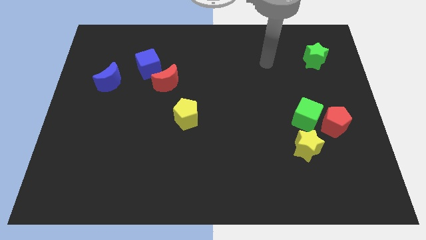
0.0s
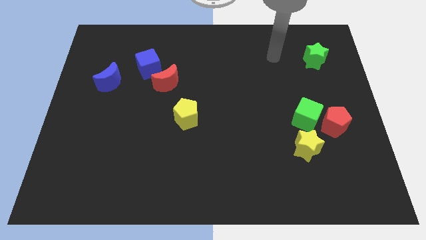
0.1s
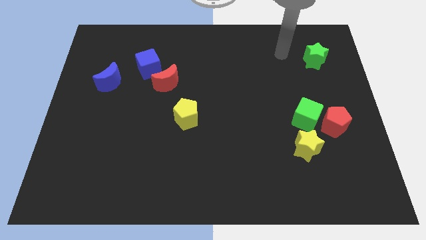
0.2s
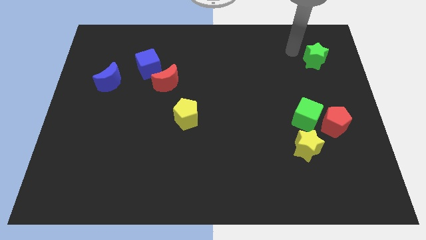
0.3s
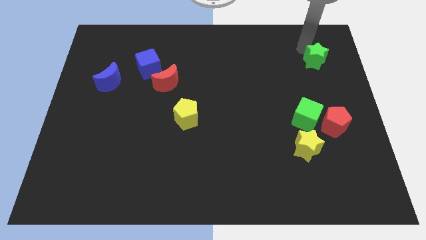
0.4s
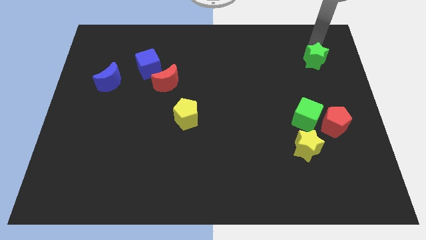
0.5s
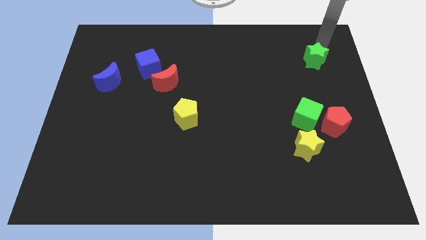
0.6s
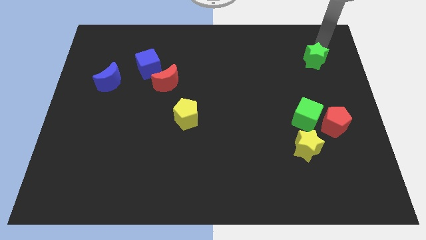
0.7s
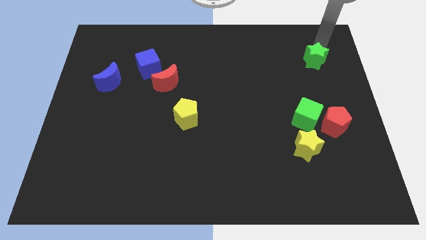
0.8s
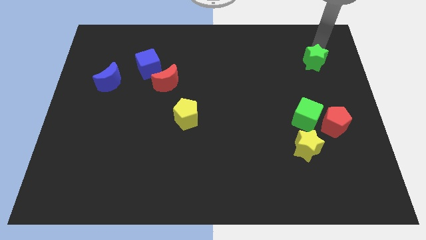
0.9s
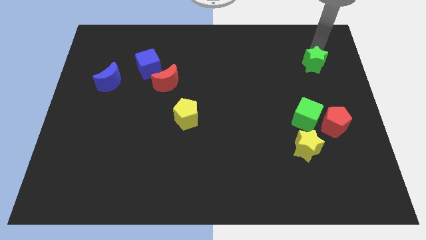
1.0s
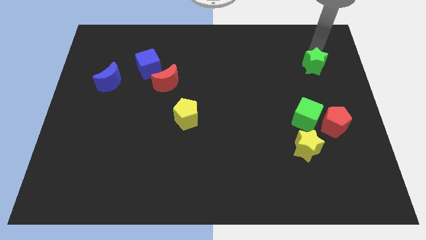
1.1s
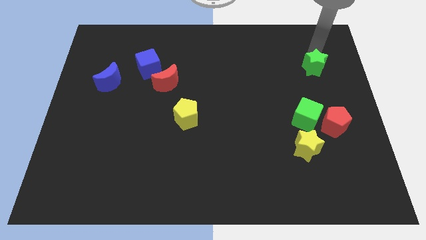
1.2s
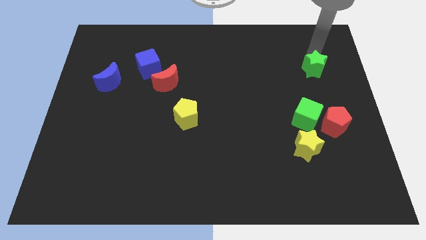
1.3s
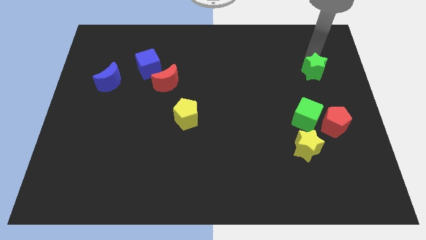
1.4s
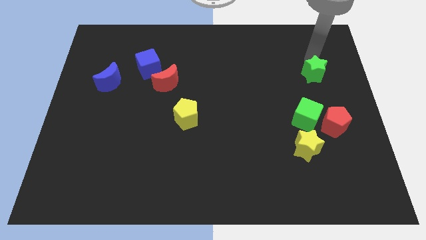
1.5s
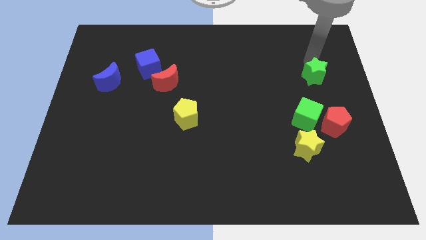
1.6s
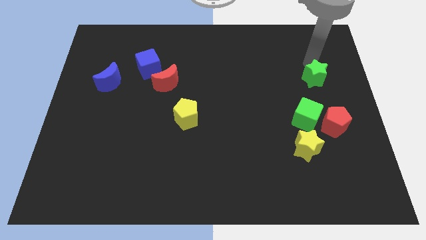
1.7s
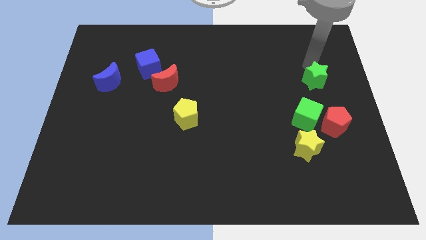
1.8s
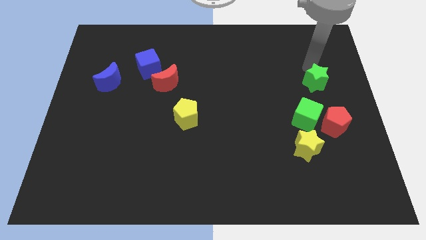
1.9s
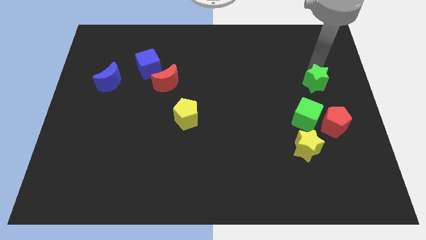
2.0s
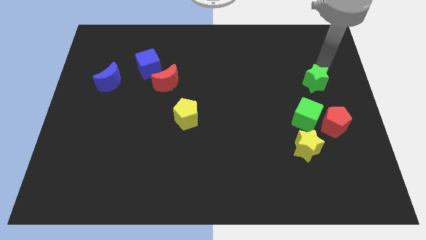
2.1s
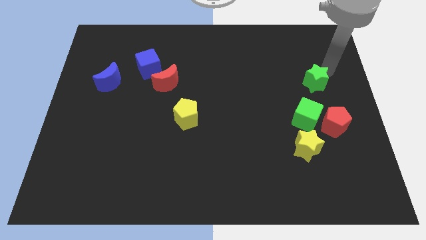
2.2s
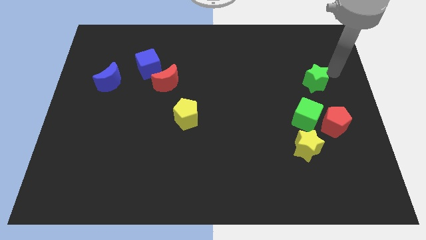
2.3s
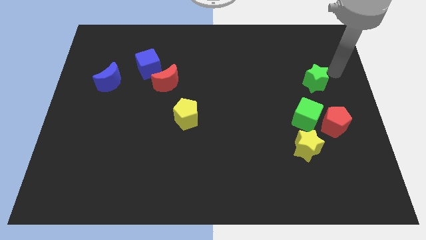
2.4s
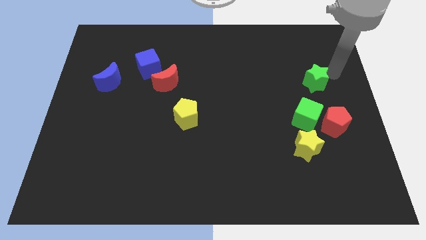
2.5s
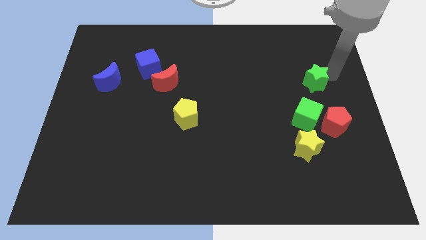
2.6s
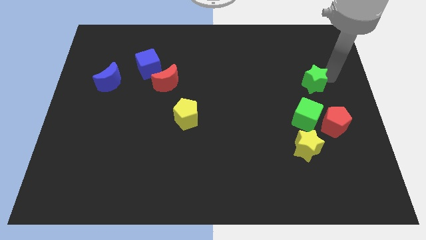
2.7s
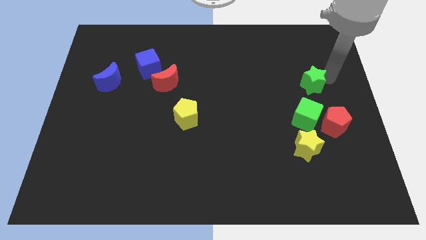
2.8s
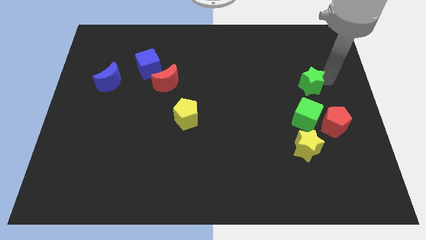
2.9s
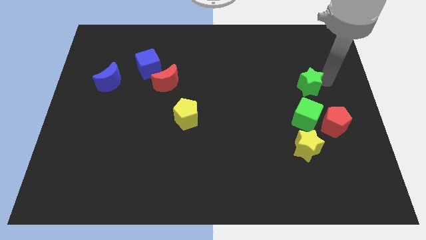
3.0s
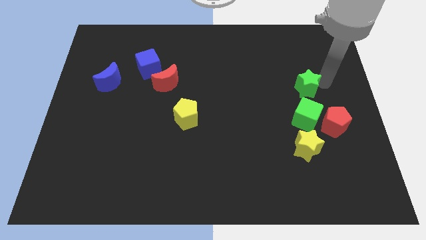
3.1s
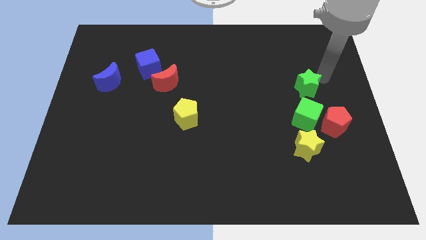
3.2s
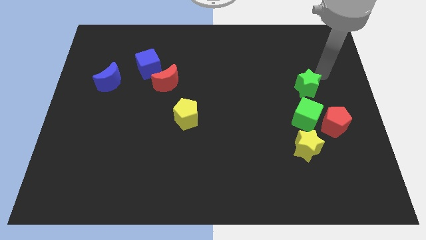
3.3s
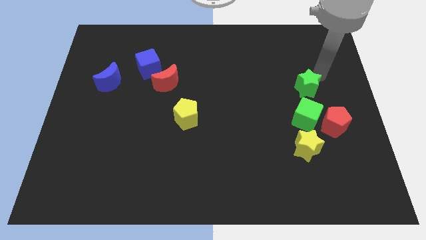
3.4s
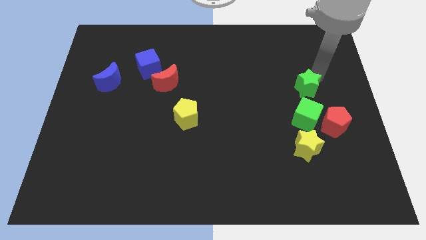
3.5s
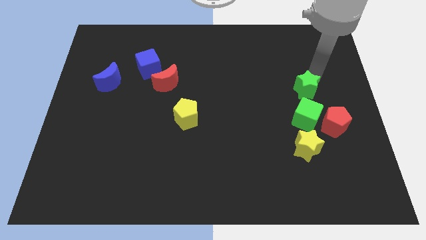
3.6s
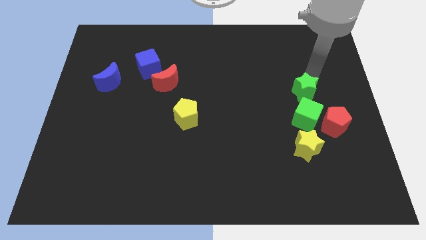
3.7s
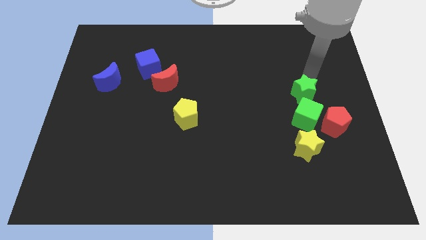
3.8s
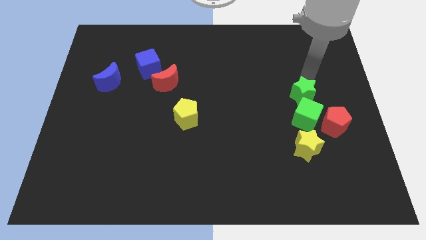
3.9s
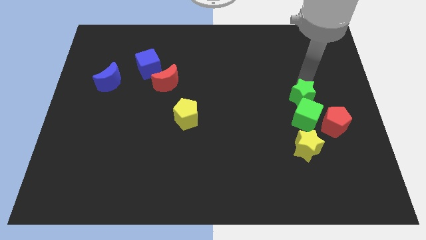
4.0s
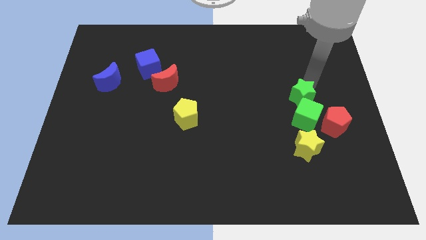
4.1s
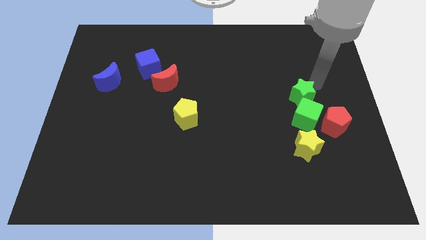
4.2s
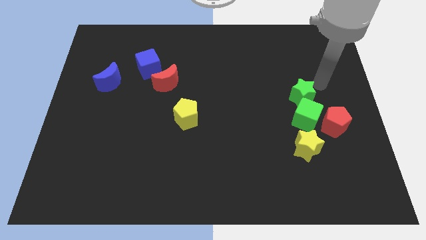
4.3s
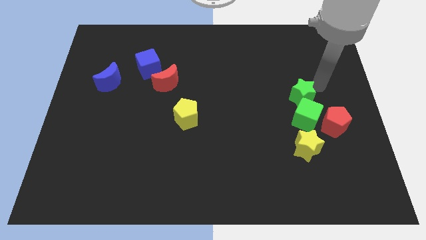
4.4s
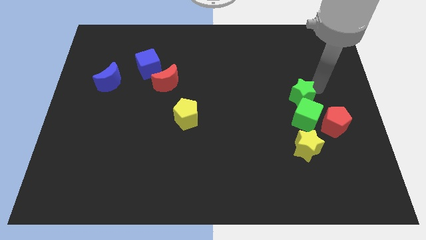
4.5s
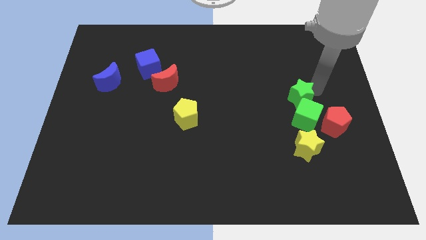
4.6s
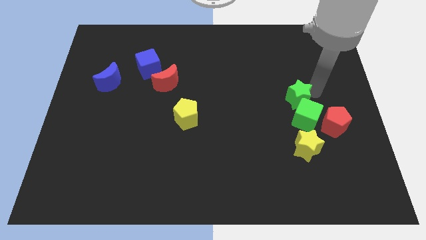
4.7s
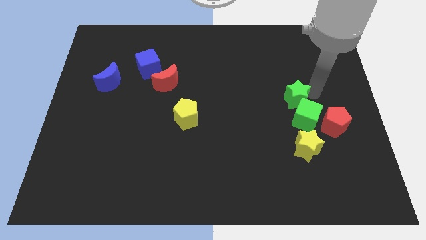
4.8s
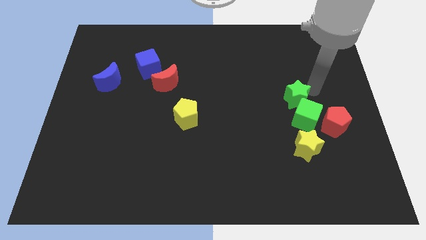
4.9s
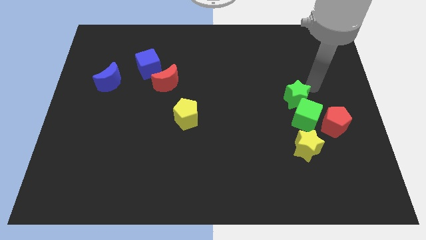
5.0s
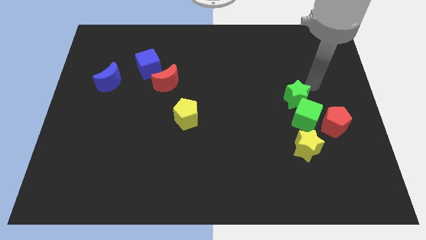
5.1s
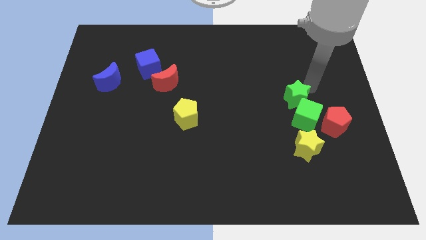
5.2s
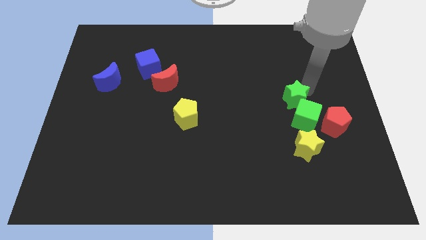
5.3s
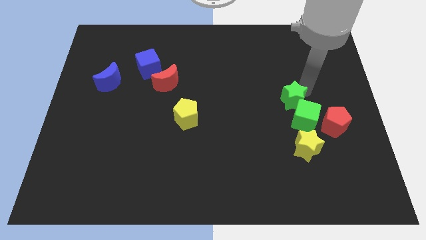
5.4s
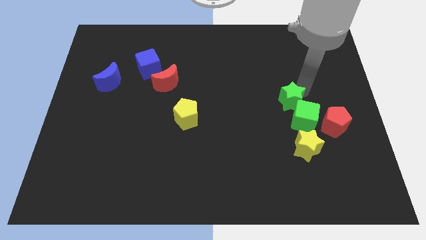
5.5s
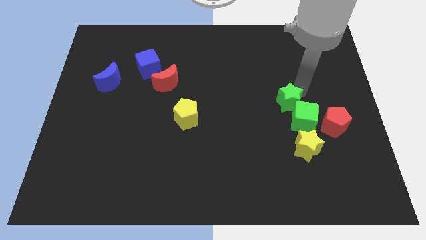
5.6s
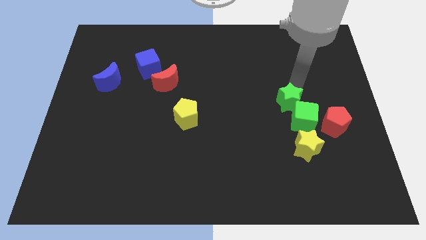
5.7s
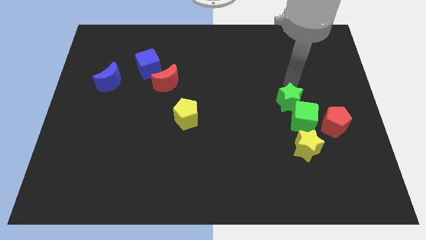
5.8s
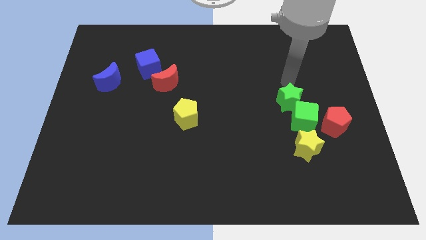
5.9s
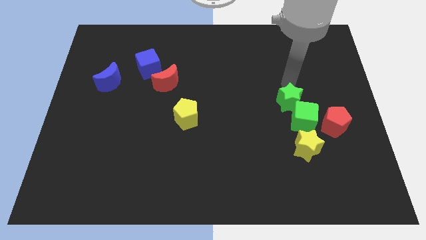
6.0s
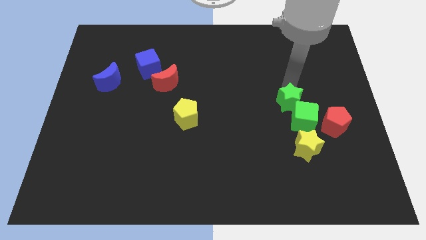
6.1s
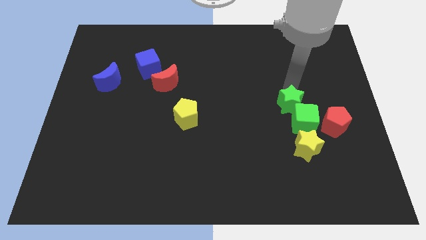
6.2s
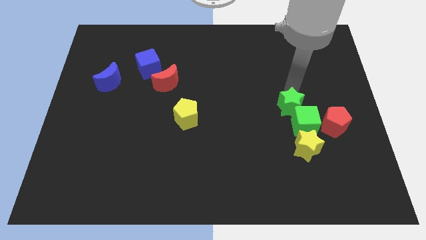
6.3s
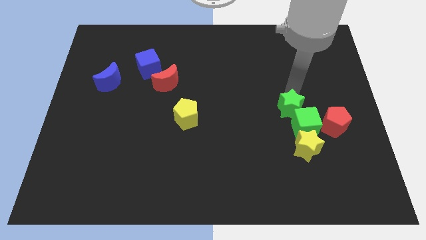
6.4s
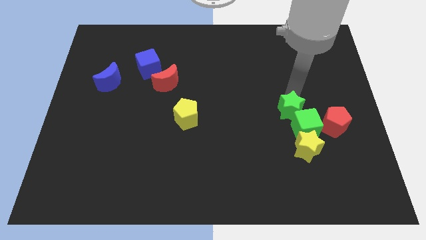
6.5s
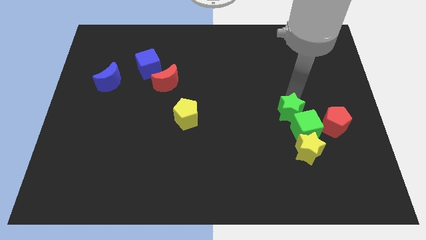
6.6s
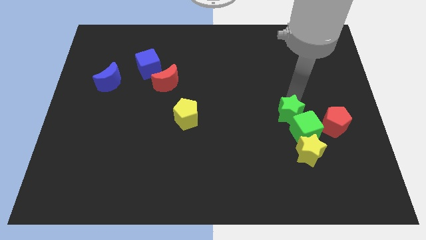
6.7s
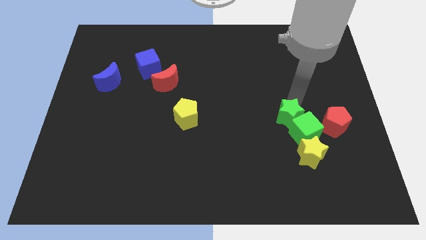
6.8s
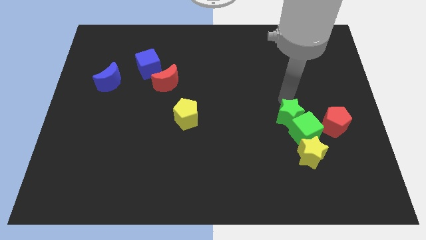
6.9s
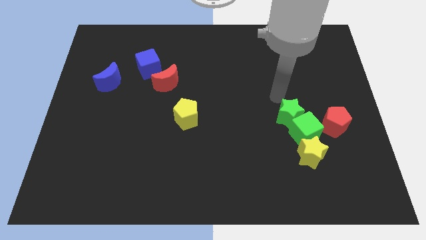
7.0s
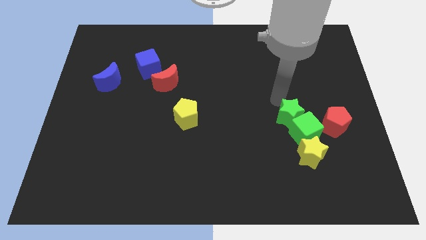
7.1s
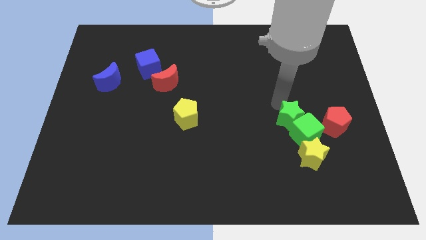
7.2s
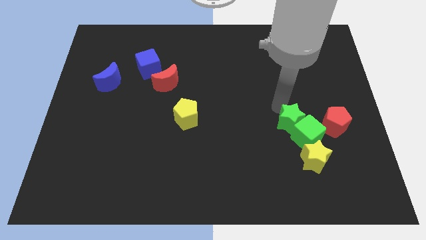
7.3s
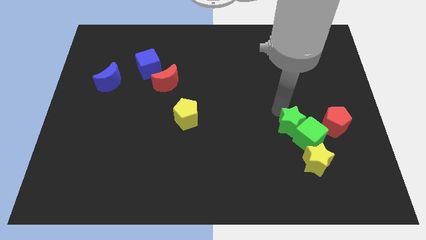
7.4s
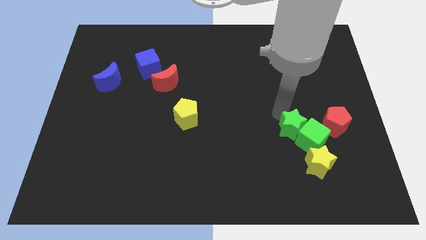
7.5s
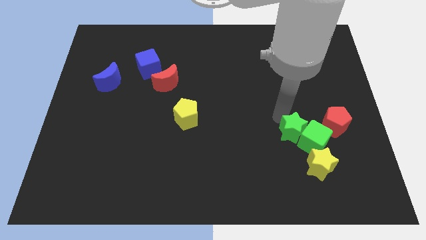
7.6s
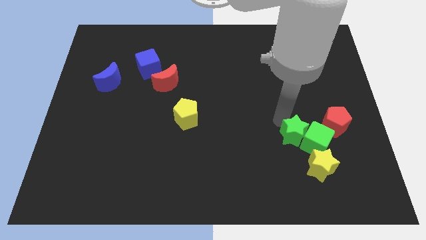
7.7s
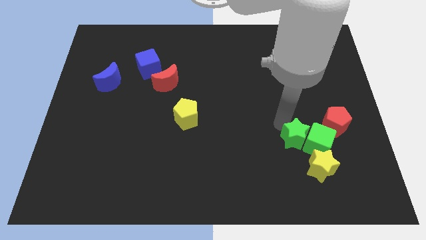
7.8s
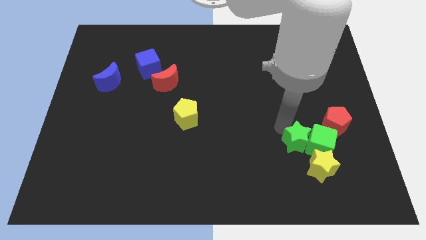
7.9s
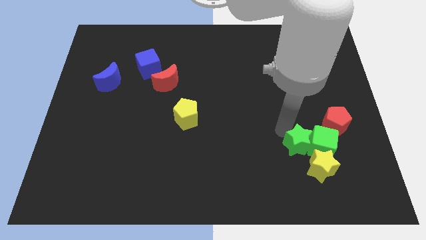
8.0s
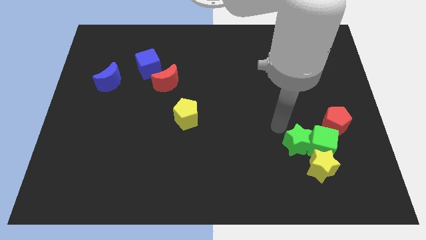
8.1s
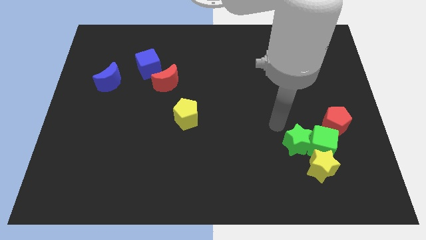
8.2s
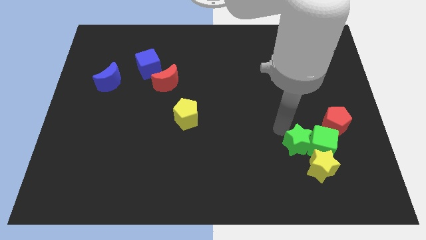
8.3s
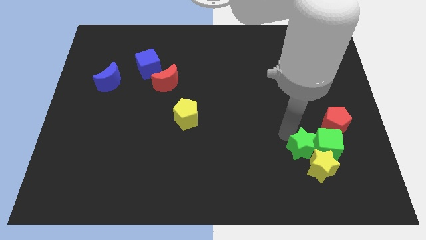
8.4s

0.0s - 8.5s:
move the green star to the yellow star
